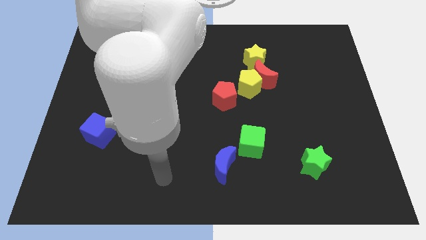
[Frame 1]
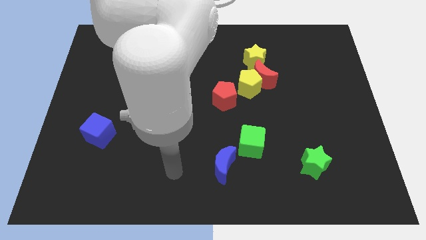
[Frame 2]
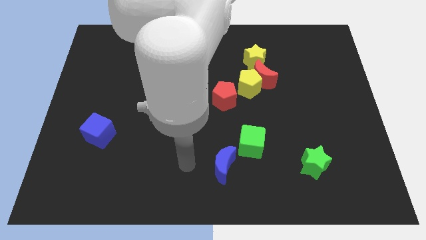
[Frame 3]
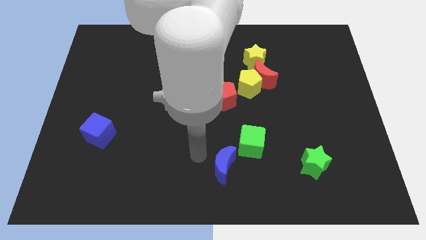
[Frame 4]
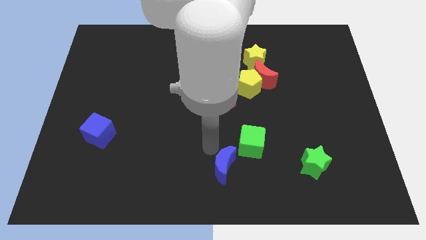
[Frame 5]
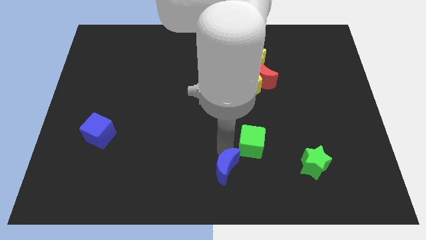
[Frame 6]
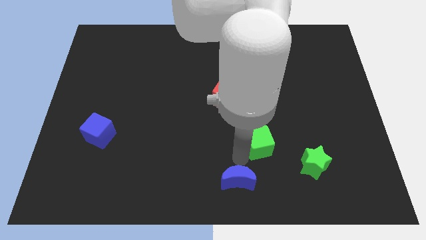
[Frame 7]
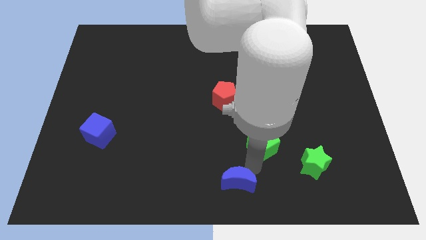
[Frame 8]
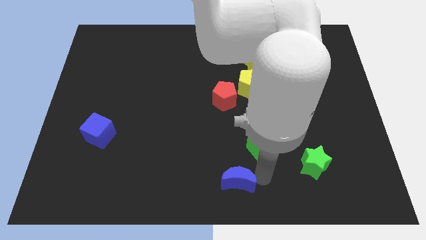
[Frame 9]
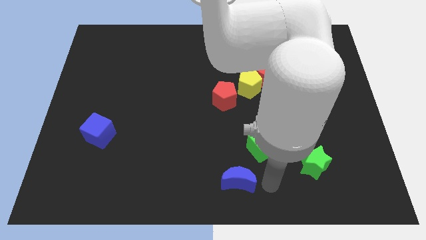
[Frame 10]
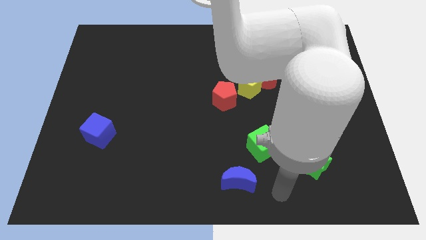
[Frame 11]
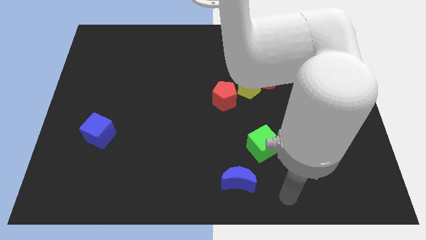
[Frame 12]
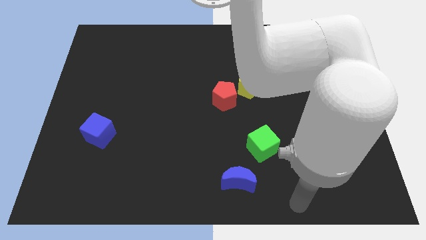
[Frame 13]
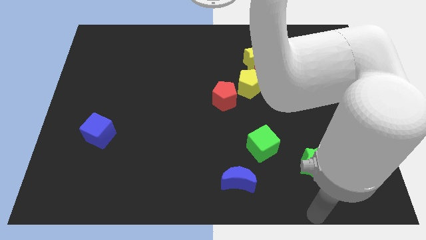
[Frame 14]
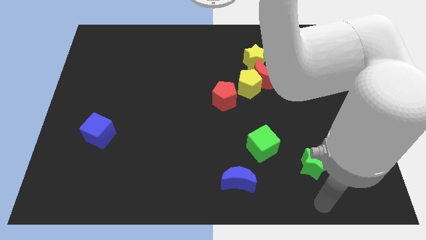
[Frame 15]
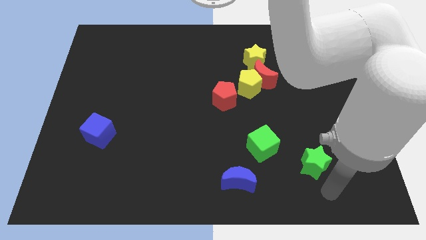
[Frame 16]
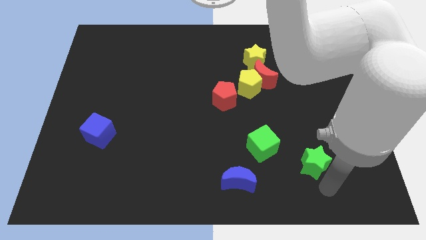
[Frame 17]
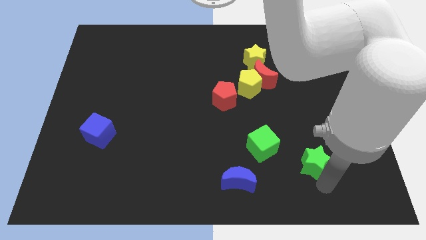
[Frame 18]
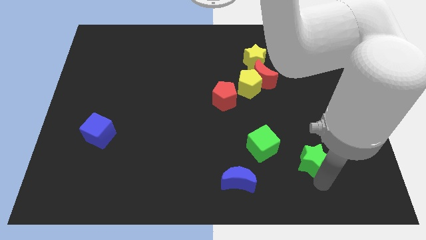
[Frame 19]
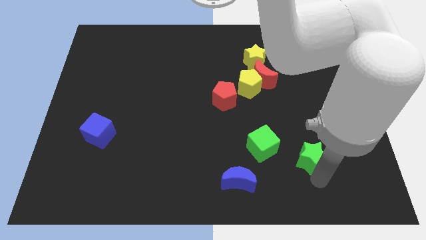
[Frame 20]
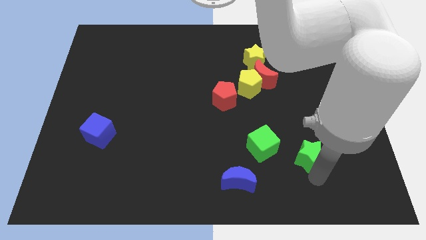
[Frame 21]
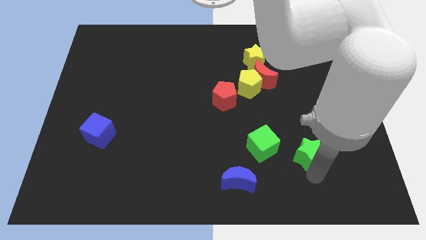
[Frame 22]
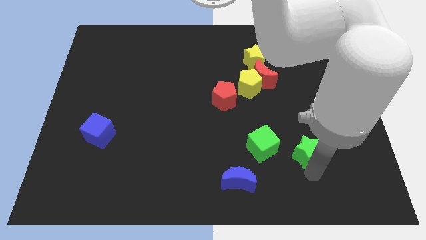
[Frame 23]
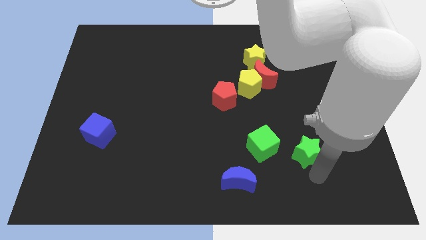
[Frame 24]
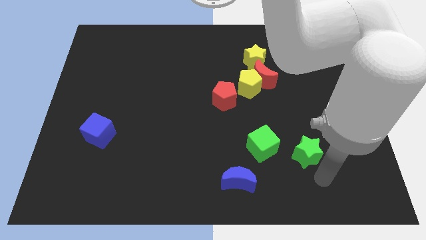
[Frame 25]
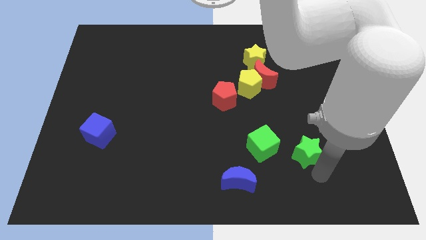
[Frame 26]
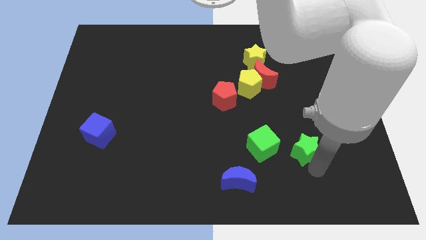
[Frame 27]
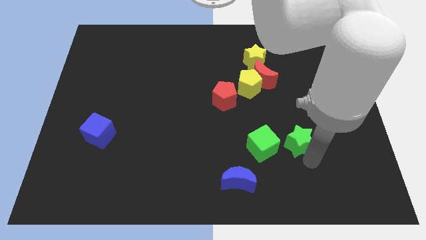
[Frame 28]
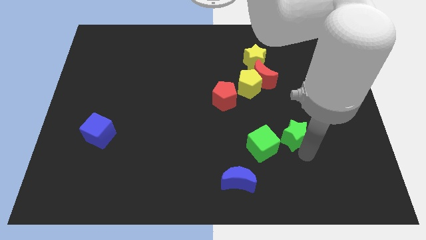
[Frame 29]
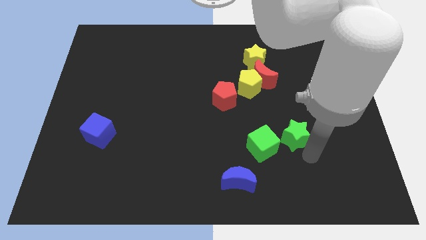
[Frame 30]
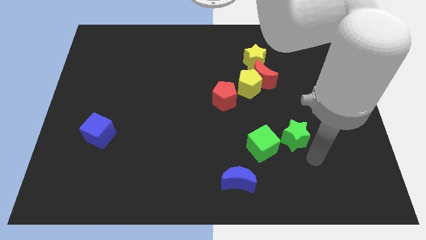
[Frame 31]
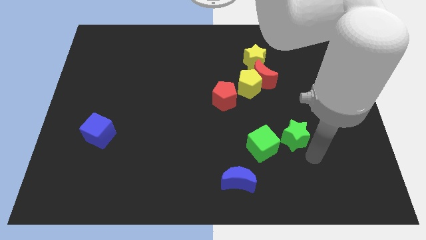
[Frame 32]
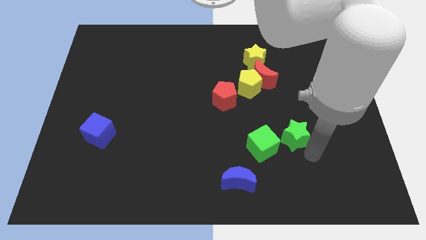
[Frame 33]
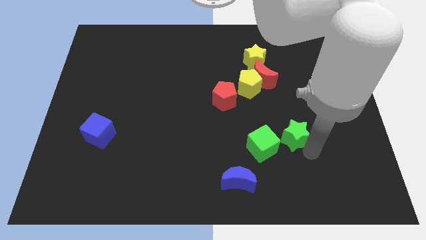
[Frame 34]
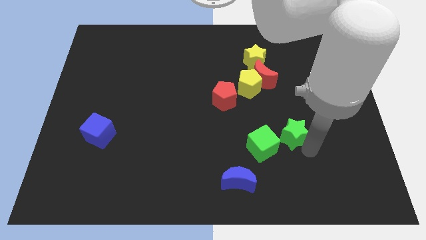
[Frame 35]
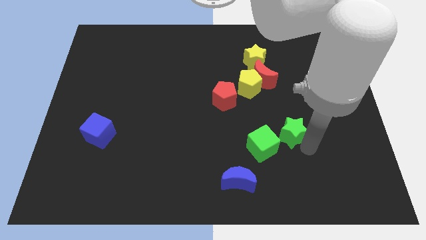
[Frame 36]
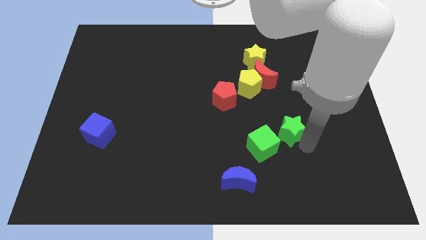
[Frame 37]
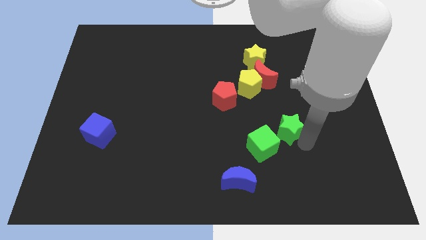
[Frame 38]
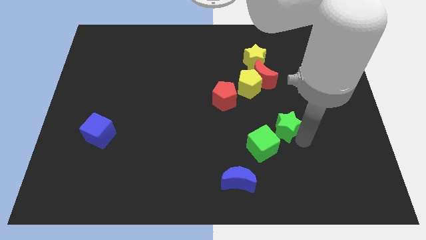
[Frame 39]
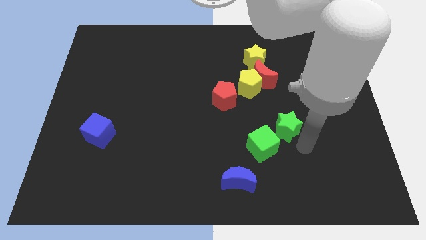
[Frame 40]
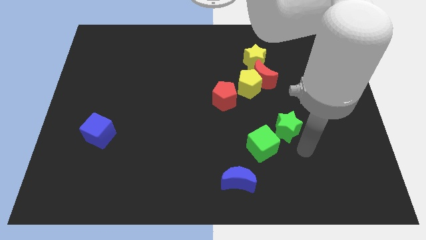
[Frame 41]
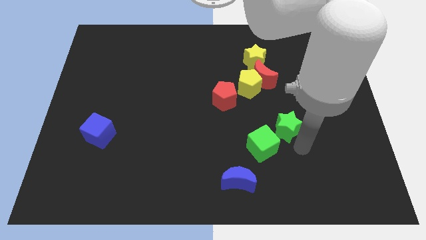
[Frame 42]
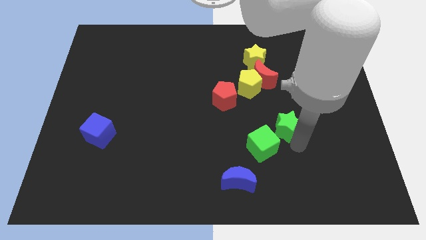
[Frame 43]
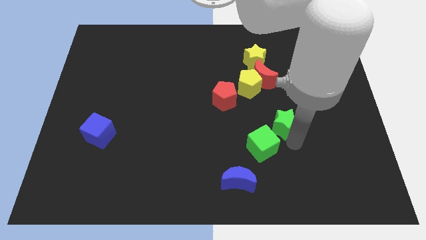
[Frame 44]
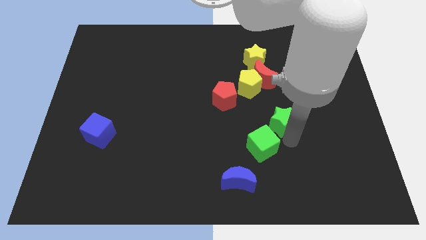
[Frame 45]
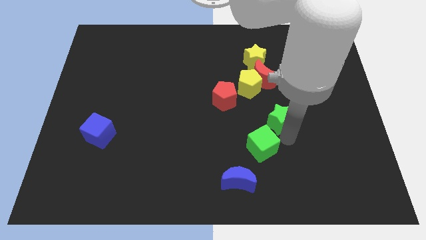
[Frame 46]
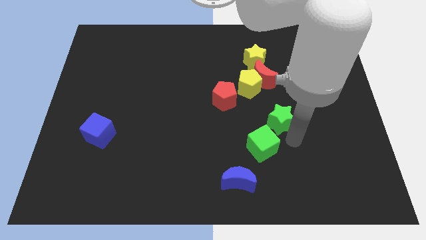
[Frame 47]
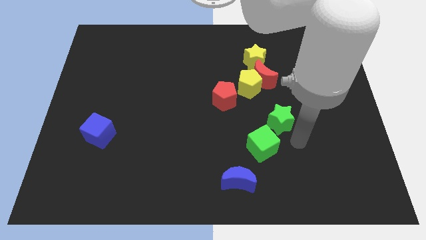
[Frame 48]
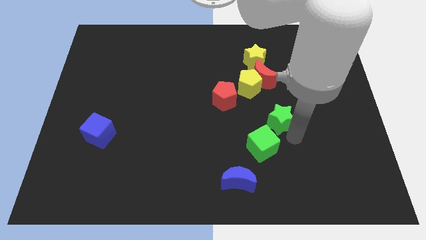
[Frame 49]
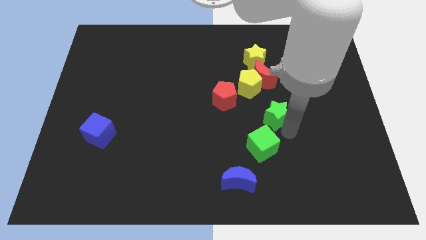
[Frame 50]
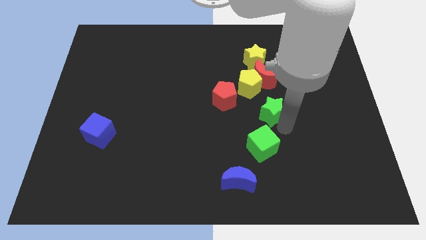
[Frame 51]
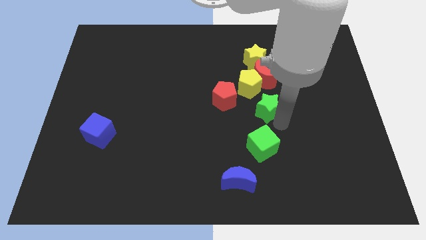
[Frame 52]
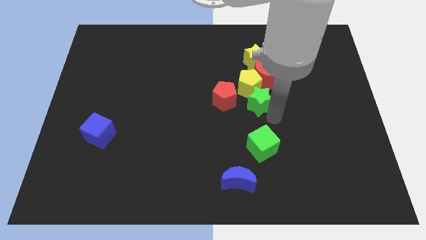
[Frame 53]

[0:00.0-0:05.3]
put the green star close to the yellow pentagon

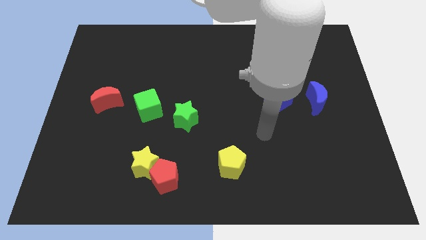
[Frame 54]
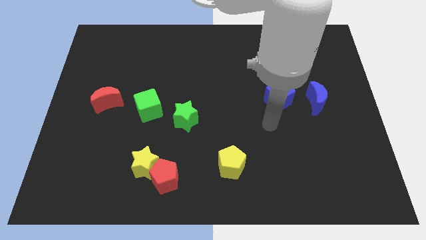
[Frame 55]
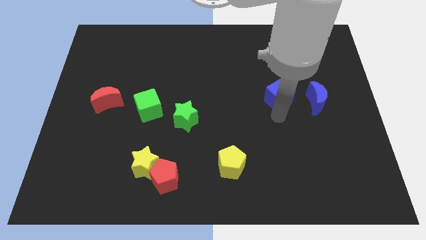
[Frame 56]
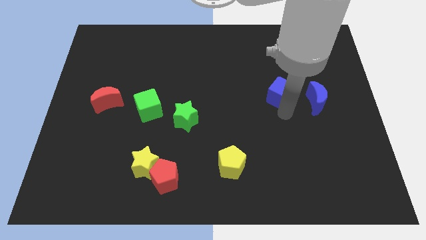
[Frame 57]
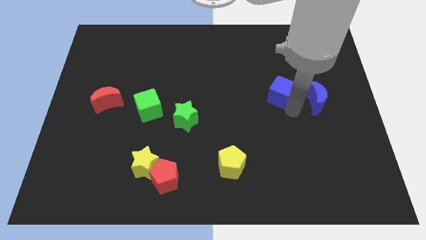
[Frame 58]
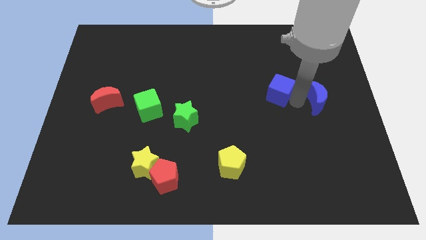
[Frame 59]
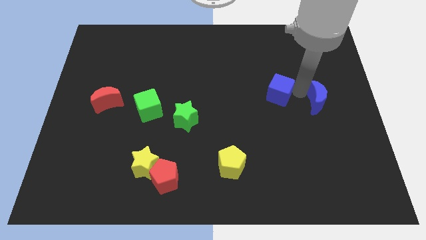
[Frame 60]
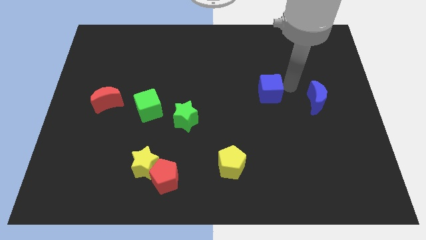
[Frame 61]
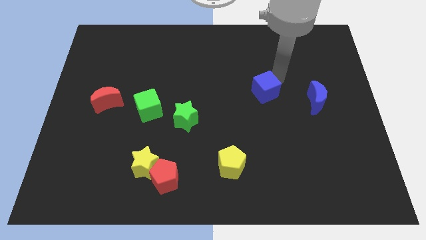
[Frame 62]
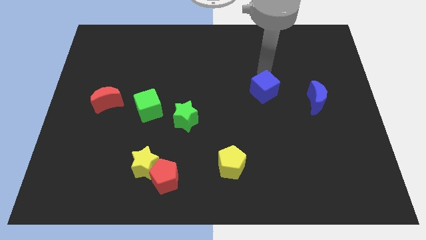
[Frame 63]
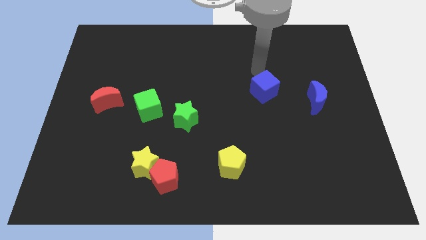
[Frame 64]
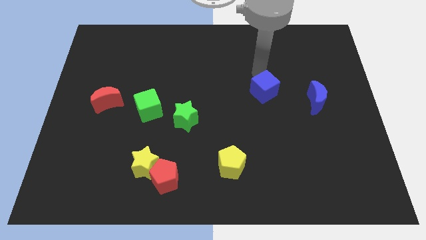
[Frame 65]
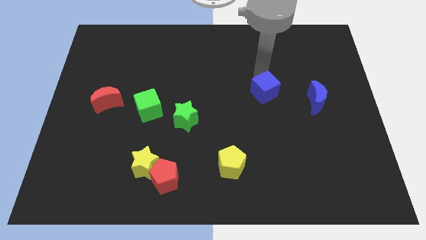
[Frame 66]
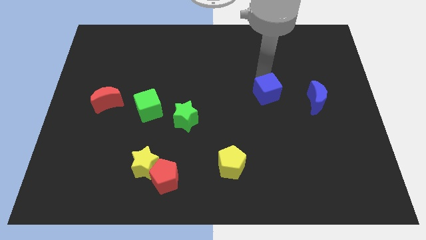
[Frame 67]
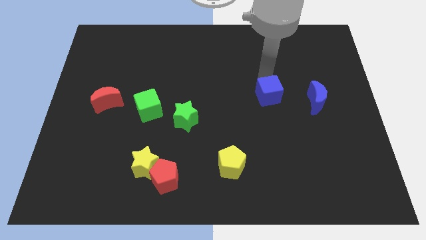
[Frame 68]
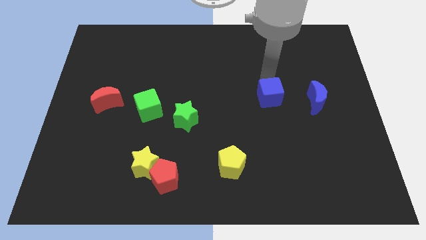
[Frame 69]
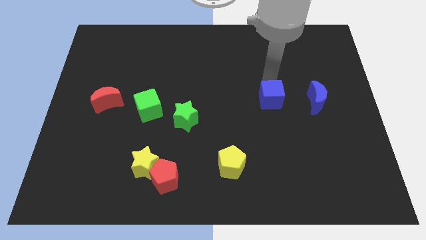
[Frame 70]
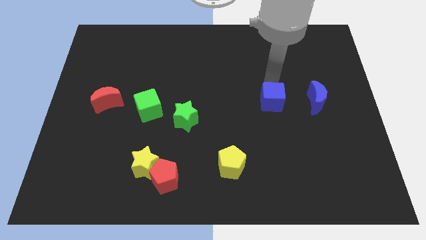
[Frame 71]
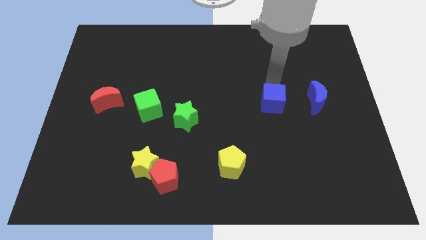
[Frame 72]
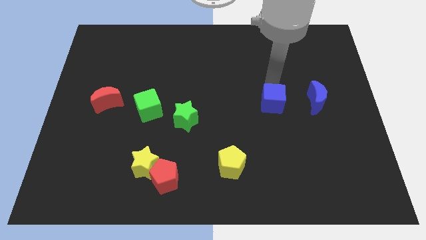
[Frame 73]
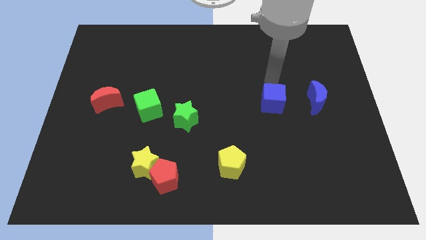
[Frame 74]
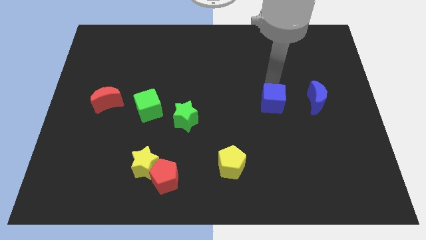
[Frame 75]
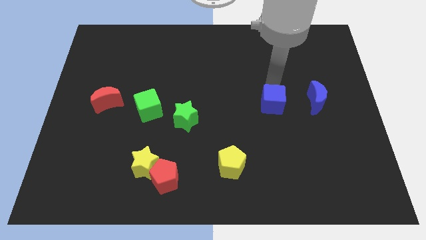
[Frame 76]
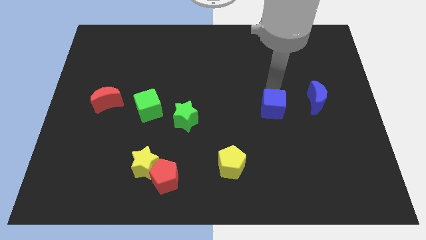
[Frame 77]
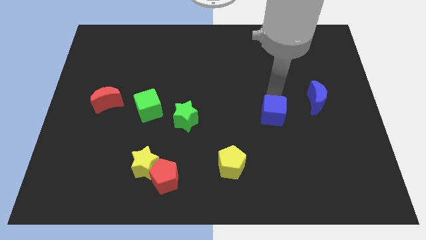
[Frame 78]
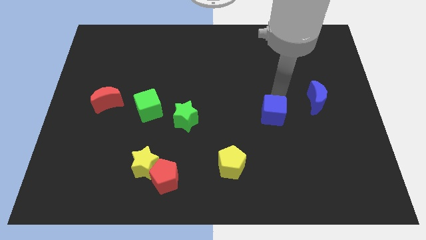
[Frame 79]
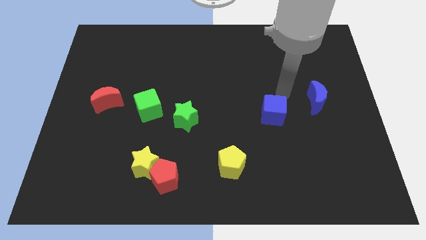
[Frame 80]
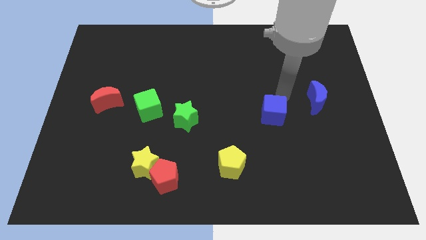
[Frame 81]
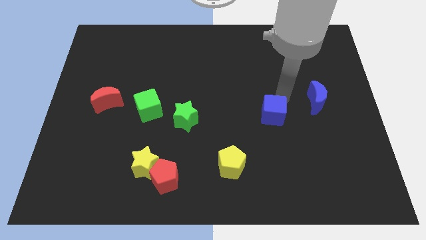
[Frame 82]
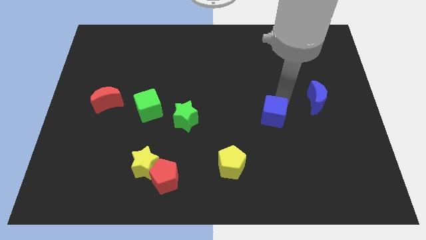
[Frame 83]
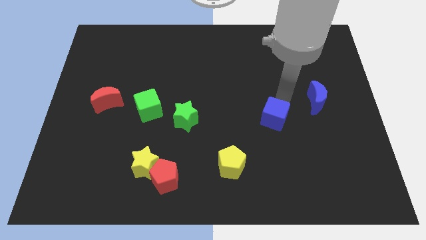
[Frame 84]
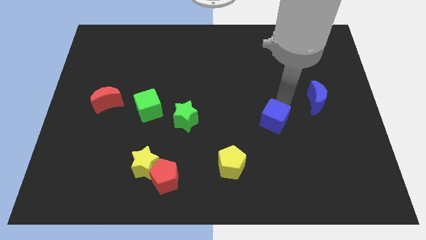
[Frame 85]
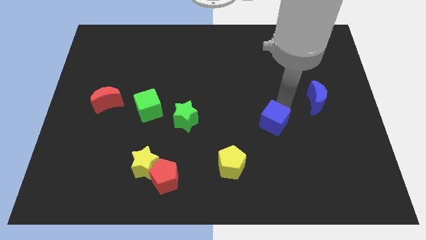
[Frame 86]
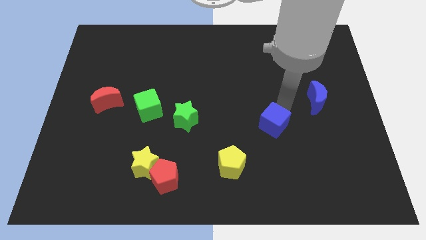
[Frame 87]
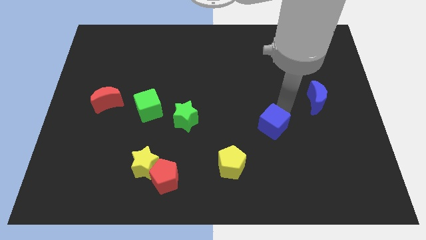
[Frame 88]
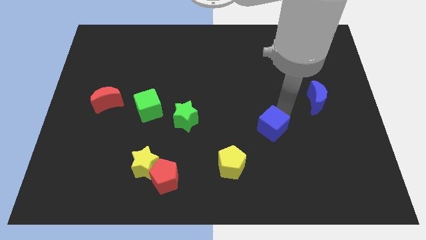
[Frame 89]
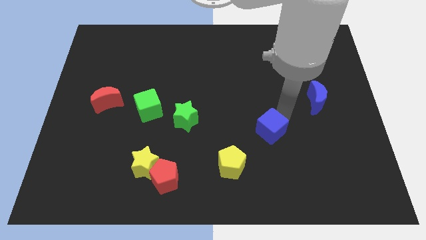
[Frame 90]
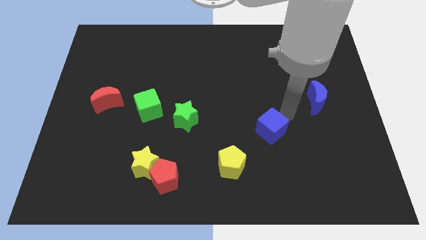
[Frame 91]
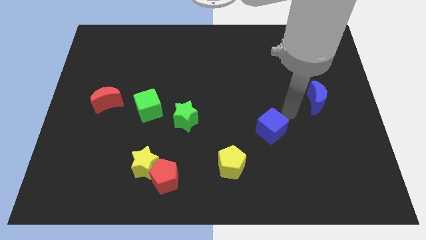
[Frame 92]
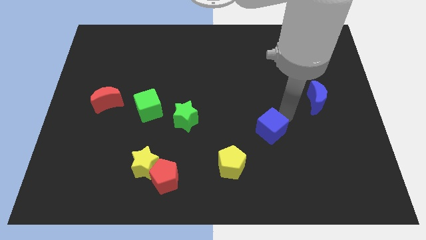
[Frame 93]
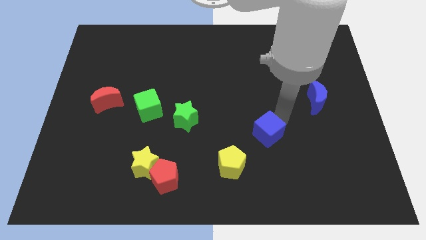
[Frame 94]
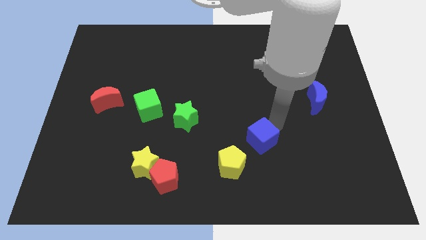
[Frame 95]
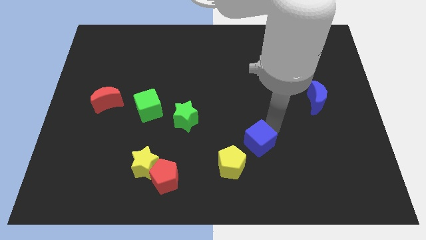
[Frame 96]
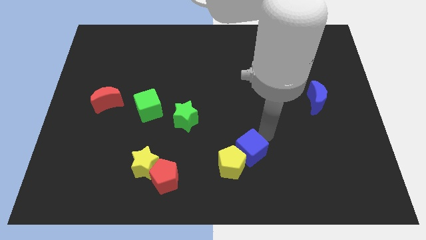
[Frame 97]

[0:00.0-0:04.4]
move the blue cube next to the yellow pentagon
